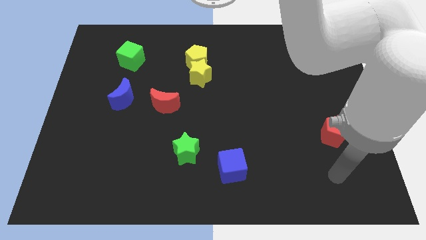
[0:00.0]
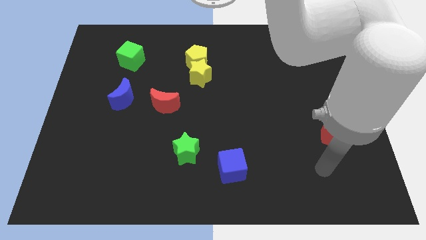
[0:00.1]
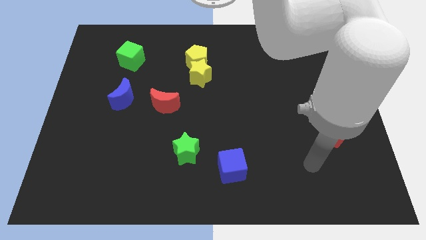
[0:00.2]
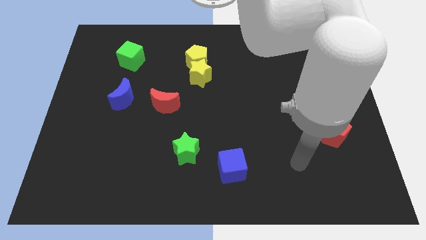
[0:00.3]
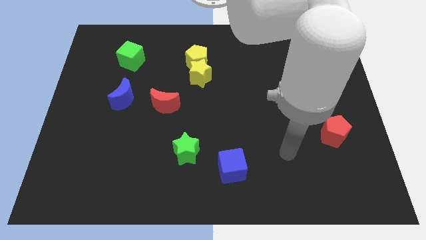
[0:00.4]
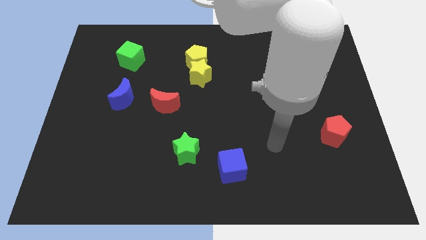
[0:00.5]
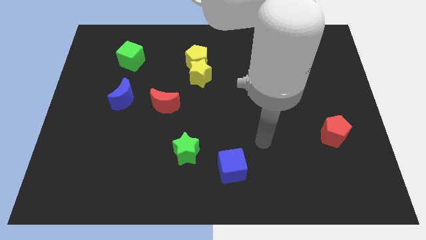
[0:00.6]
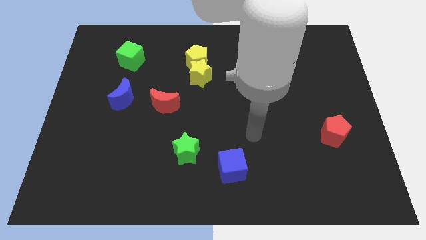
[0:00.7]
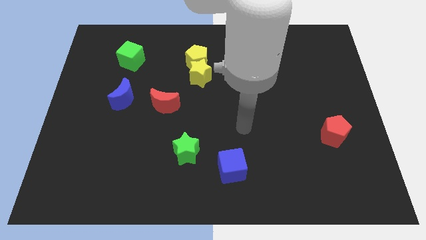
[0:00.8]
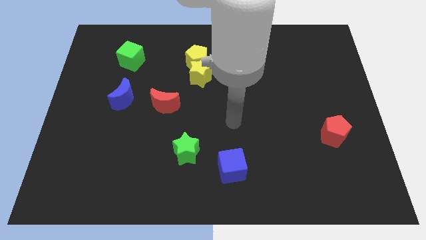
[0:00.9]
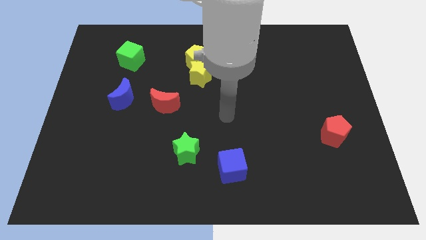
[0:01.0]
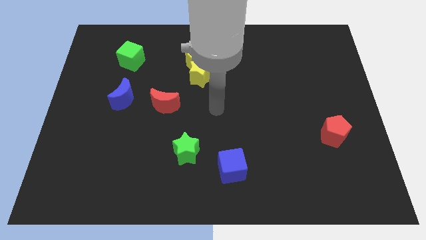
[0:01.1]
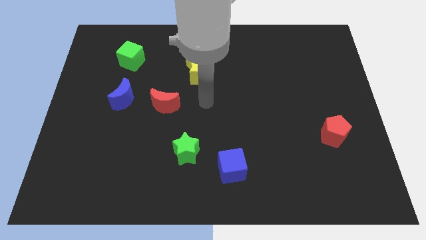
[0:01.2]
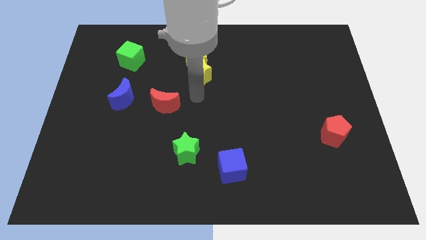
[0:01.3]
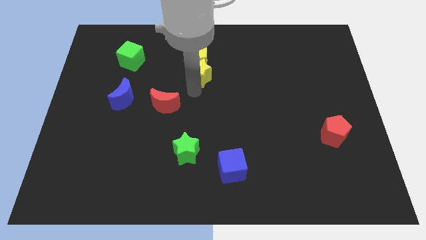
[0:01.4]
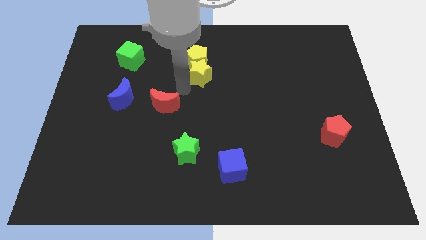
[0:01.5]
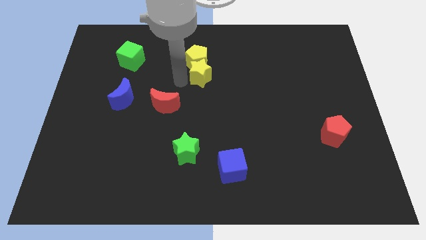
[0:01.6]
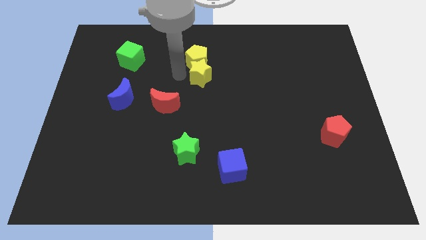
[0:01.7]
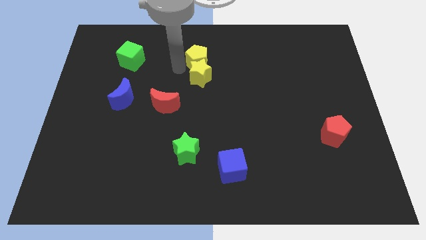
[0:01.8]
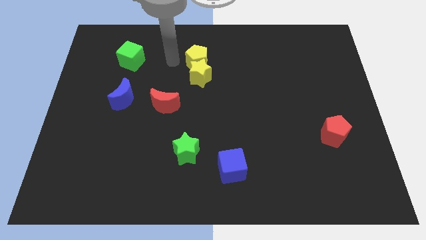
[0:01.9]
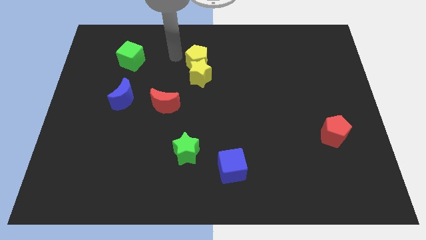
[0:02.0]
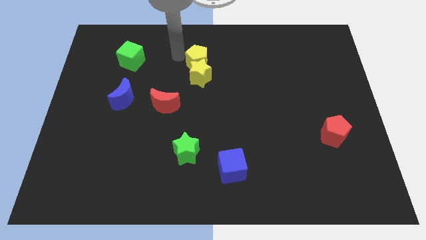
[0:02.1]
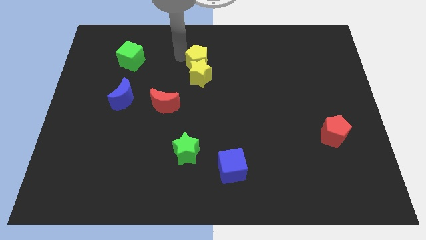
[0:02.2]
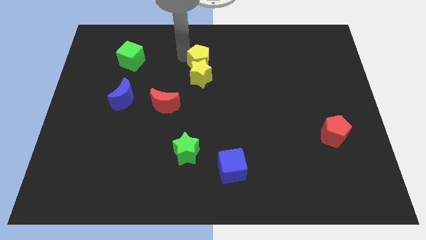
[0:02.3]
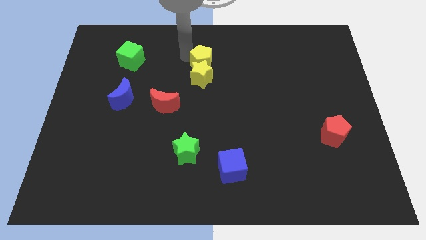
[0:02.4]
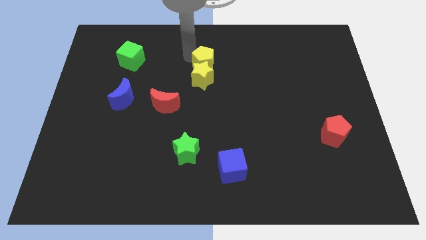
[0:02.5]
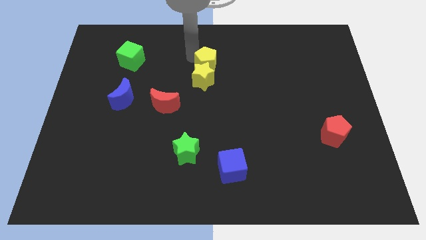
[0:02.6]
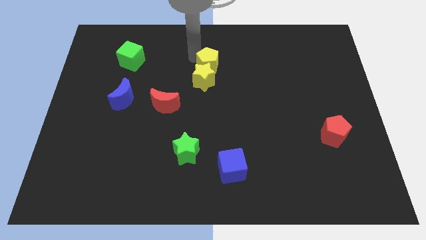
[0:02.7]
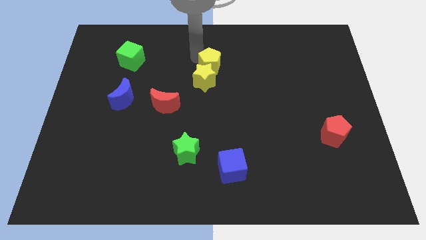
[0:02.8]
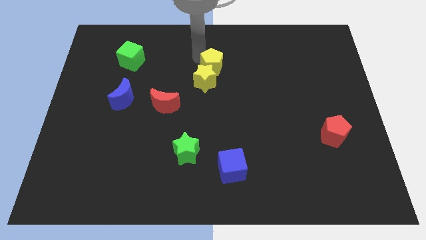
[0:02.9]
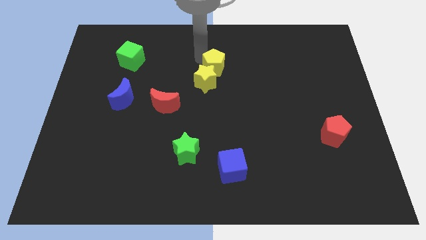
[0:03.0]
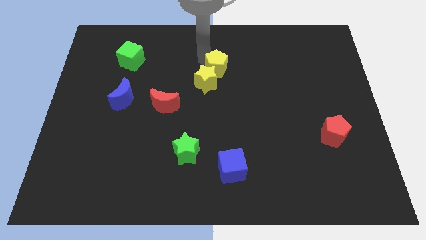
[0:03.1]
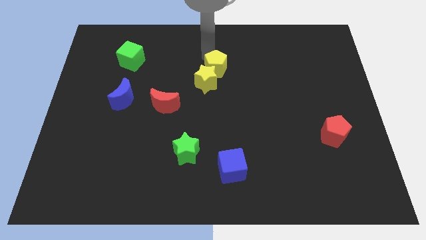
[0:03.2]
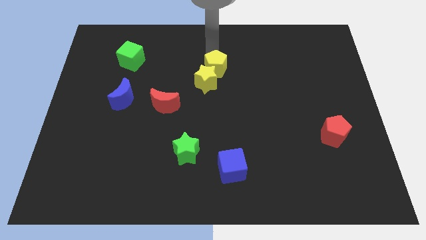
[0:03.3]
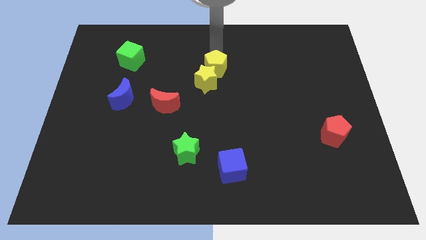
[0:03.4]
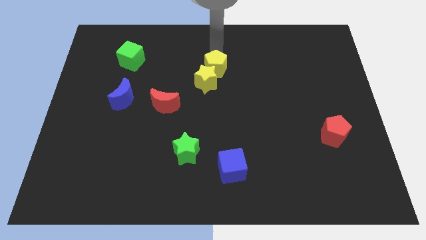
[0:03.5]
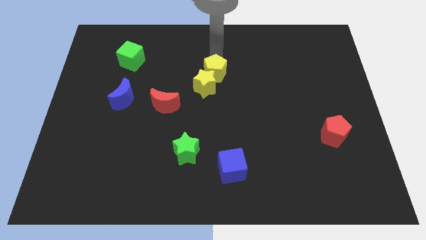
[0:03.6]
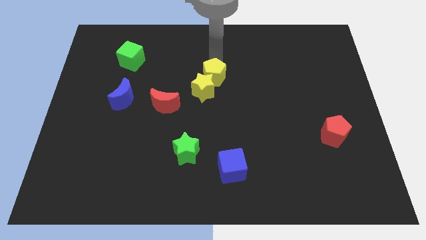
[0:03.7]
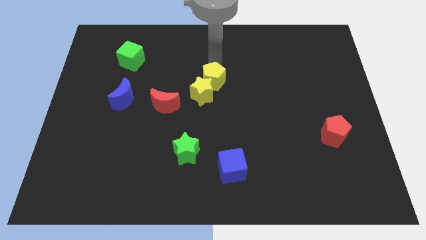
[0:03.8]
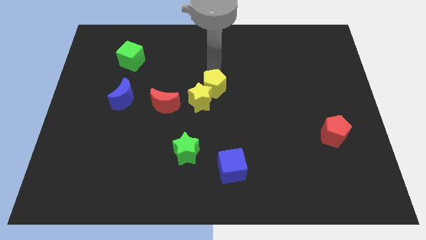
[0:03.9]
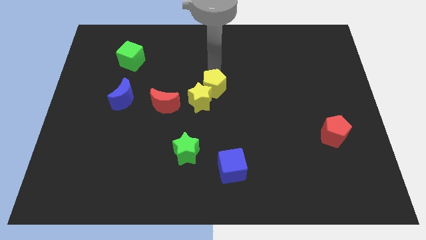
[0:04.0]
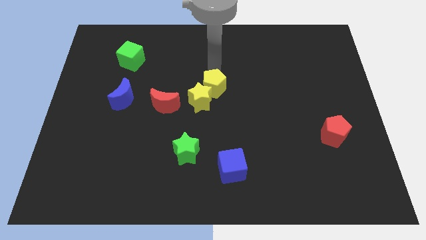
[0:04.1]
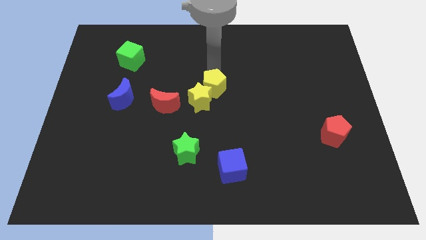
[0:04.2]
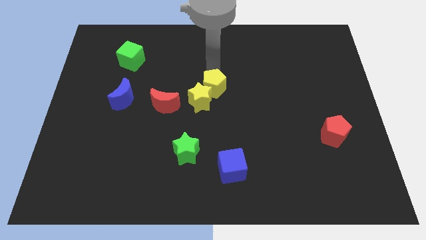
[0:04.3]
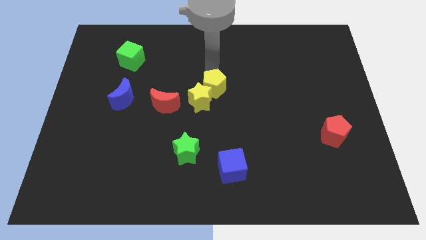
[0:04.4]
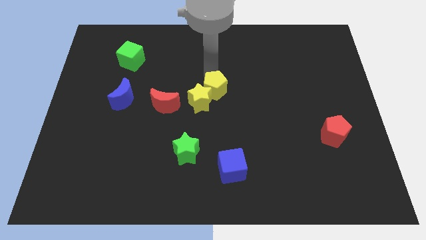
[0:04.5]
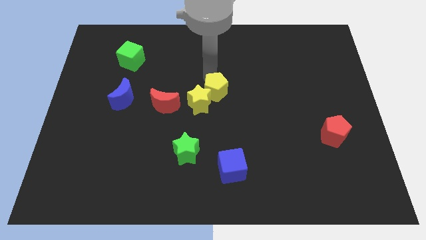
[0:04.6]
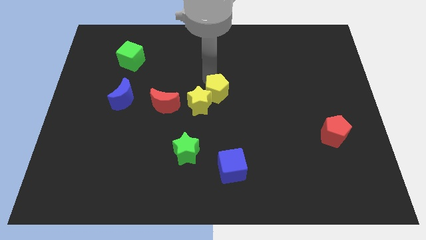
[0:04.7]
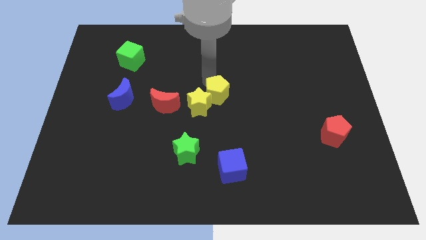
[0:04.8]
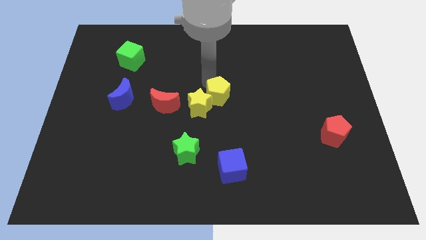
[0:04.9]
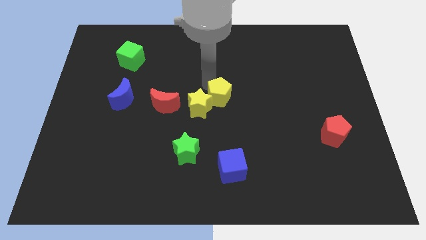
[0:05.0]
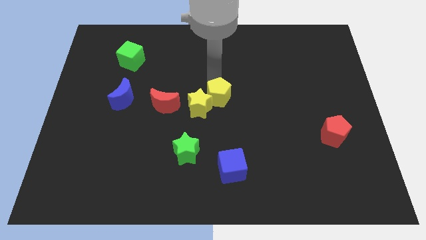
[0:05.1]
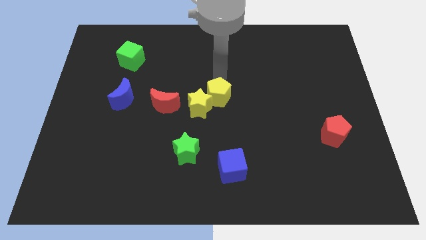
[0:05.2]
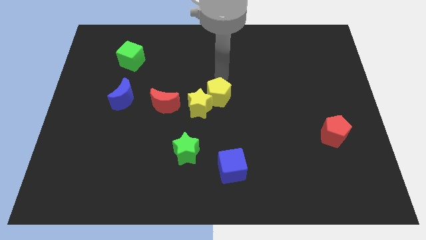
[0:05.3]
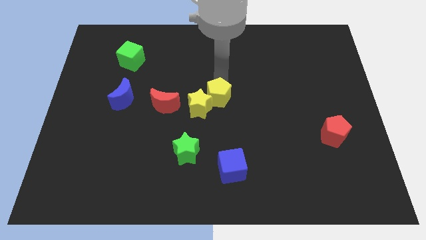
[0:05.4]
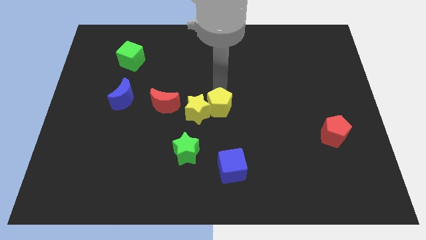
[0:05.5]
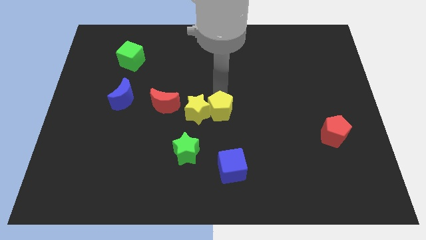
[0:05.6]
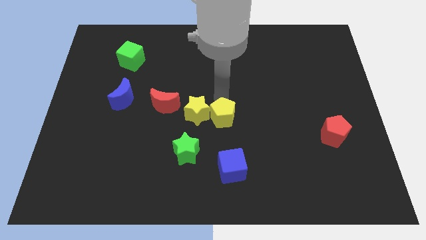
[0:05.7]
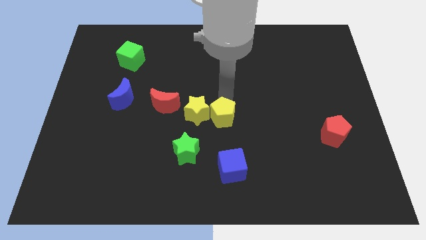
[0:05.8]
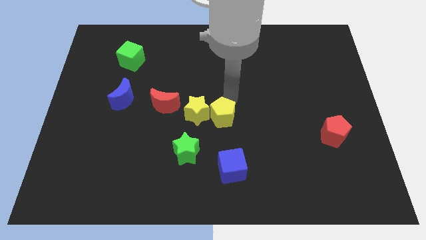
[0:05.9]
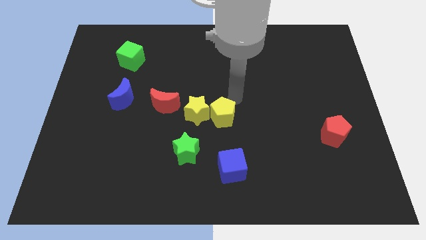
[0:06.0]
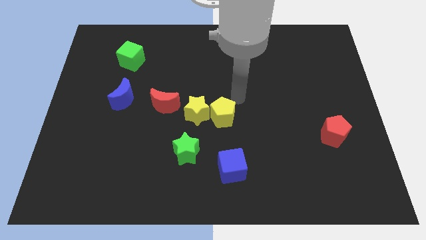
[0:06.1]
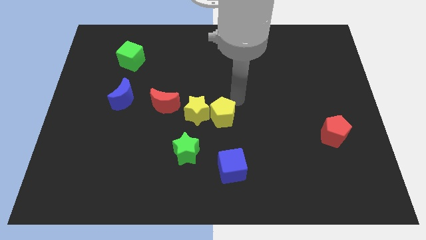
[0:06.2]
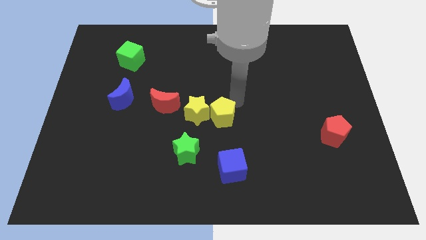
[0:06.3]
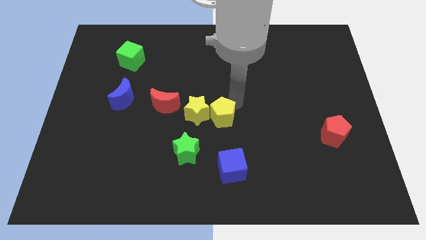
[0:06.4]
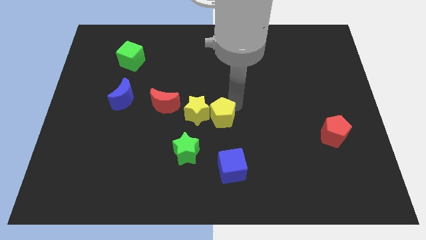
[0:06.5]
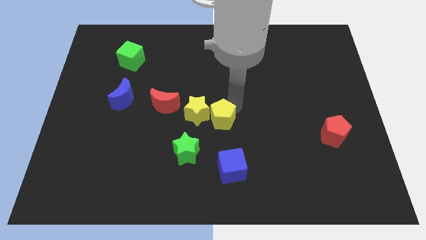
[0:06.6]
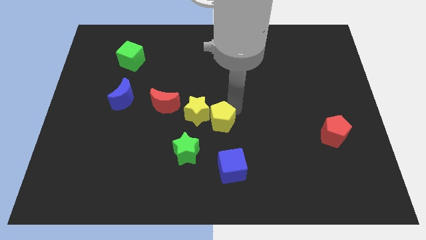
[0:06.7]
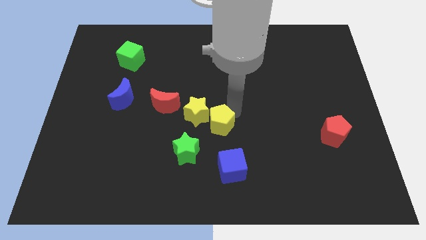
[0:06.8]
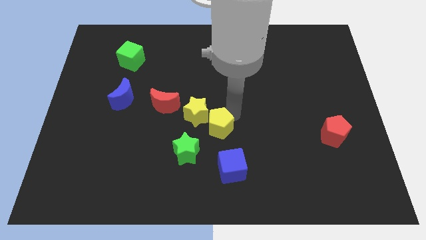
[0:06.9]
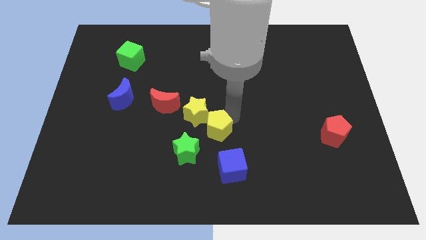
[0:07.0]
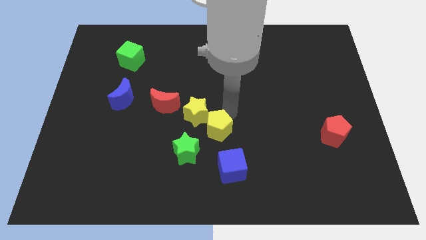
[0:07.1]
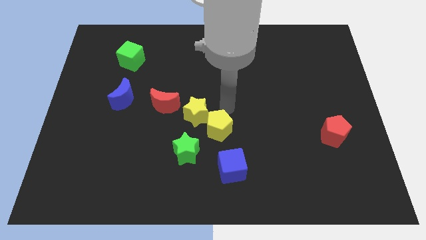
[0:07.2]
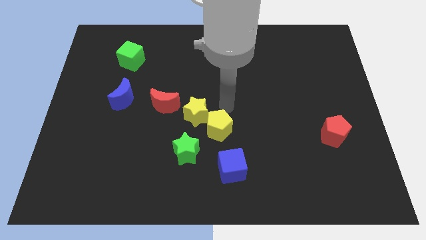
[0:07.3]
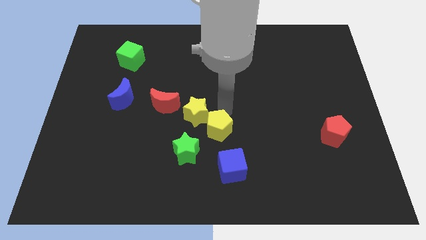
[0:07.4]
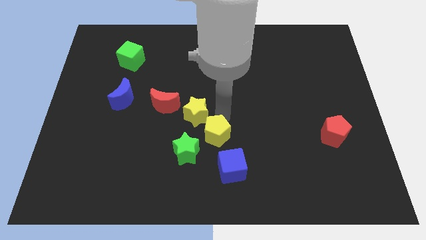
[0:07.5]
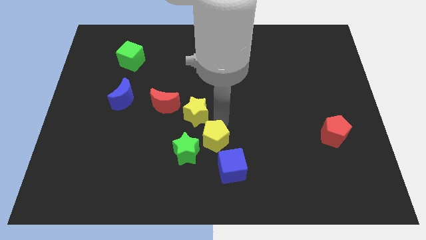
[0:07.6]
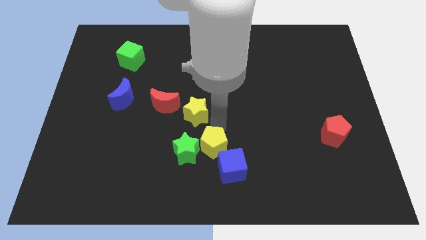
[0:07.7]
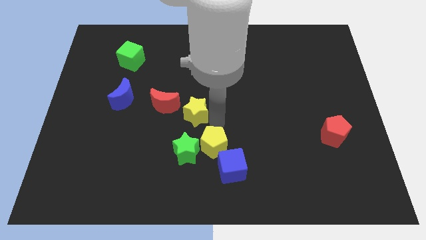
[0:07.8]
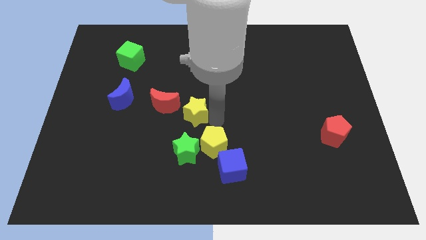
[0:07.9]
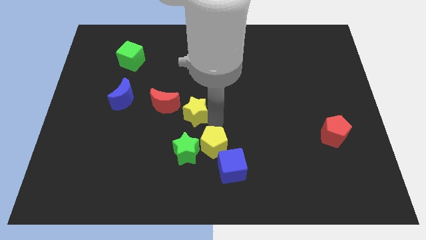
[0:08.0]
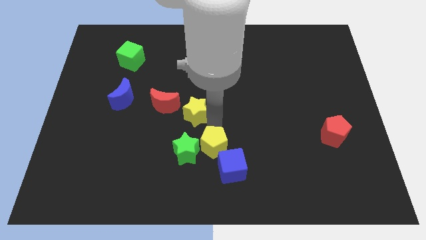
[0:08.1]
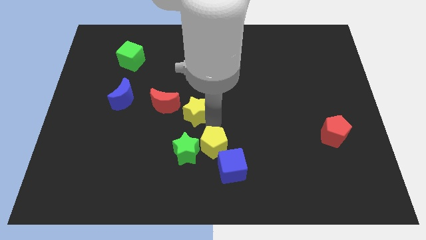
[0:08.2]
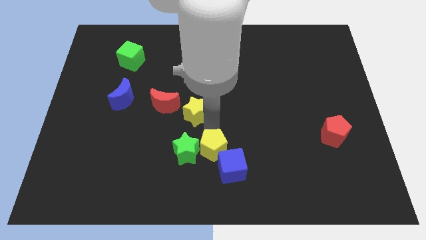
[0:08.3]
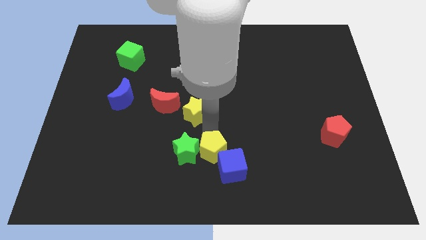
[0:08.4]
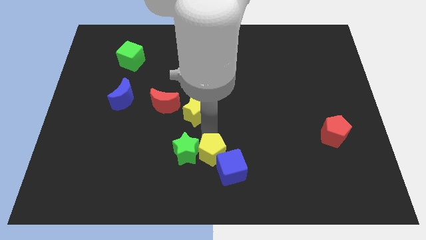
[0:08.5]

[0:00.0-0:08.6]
put the yellow pentagon to the bottom side
